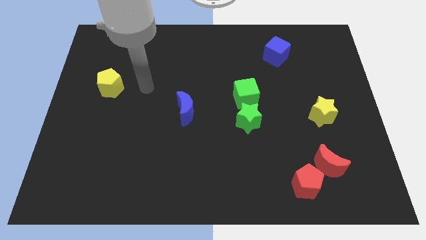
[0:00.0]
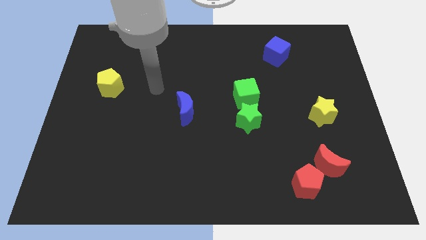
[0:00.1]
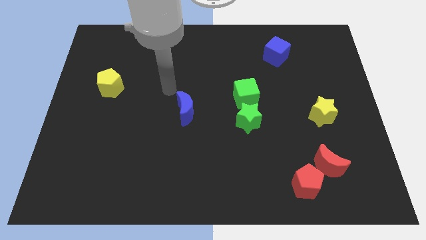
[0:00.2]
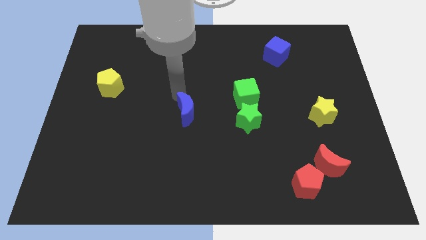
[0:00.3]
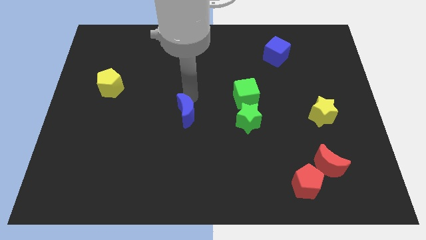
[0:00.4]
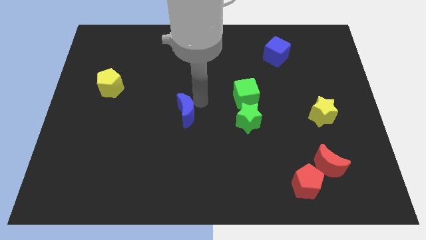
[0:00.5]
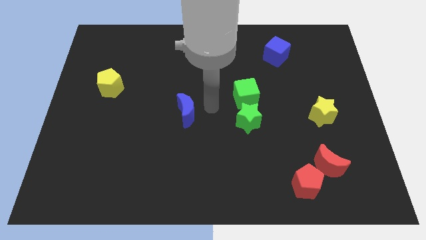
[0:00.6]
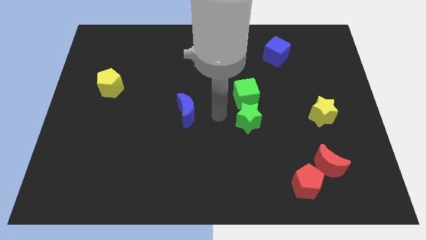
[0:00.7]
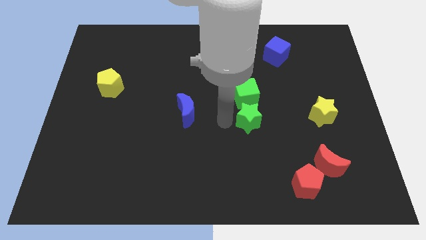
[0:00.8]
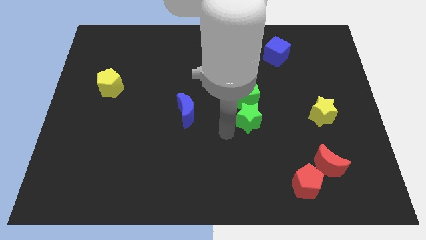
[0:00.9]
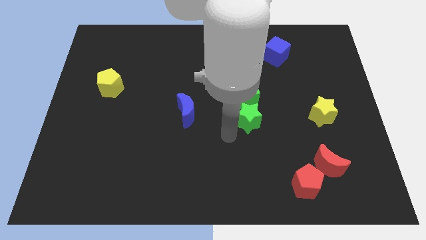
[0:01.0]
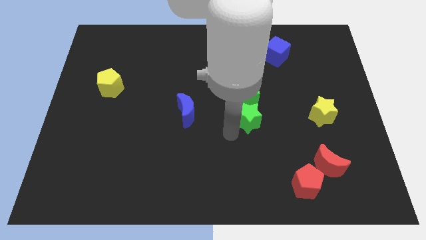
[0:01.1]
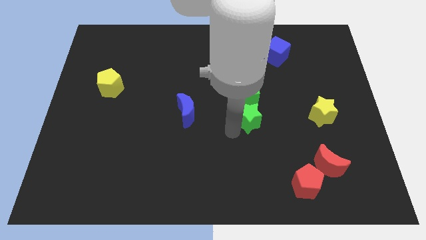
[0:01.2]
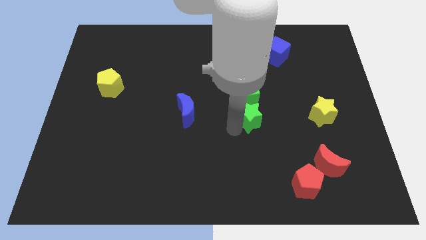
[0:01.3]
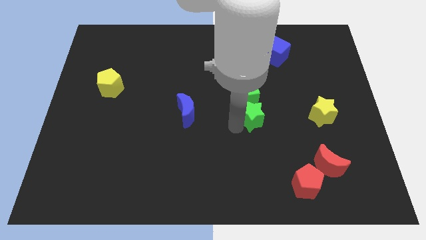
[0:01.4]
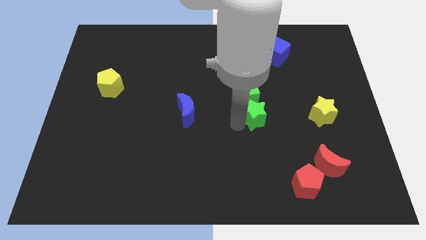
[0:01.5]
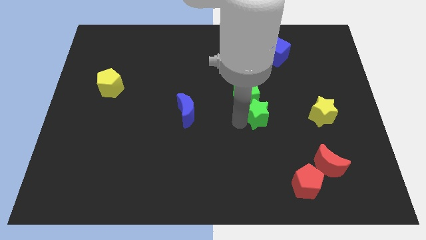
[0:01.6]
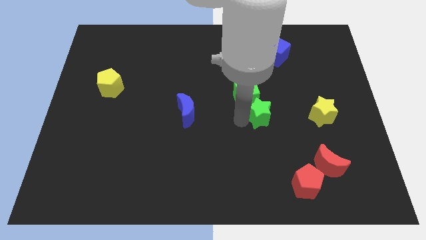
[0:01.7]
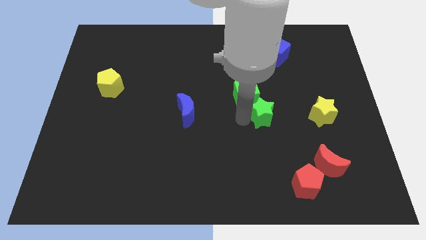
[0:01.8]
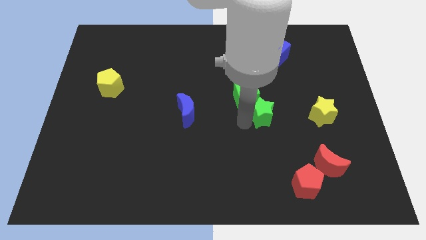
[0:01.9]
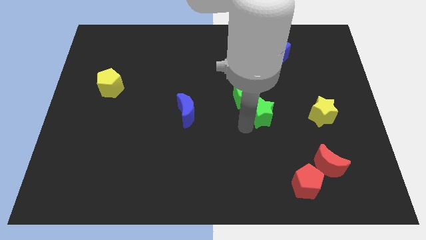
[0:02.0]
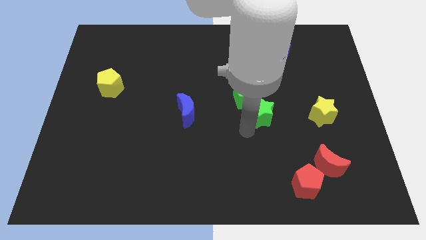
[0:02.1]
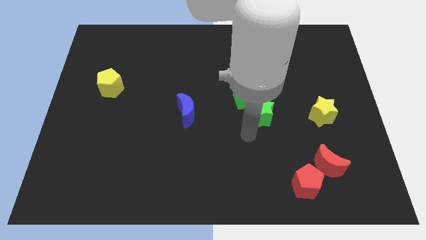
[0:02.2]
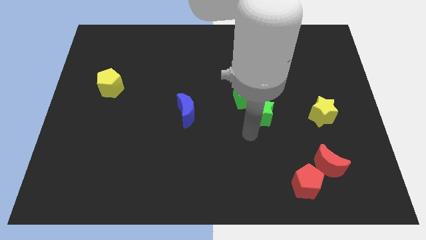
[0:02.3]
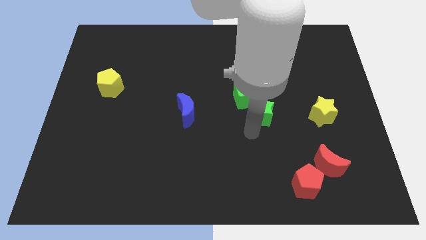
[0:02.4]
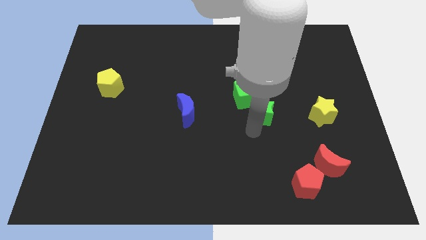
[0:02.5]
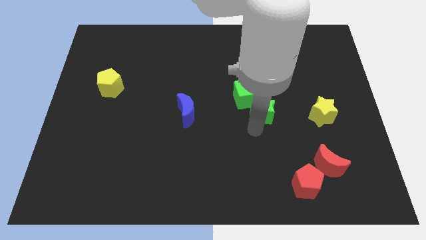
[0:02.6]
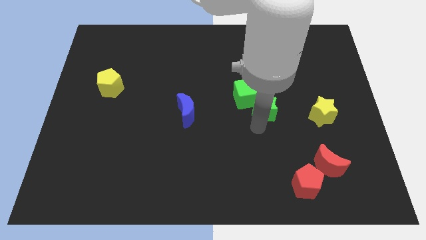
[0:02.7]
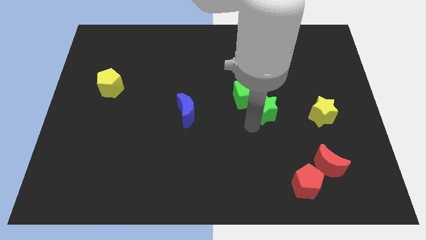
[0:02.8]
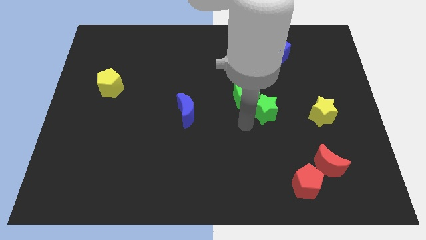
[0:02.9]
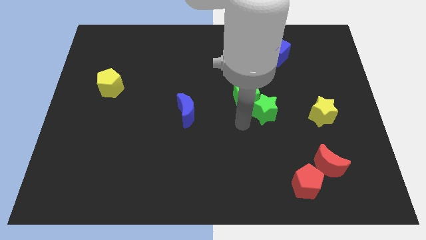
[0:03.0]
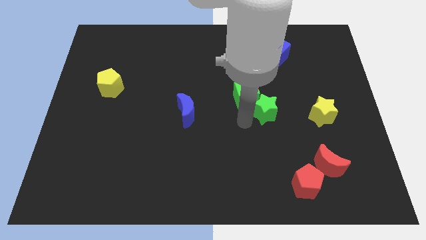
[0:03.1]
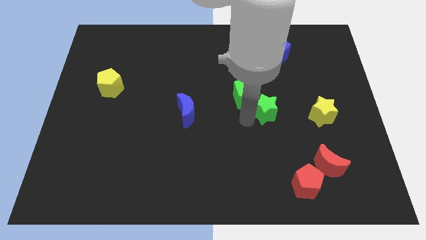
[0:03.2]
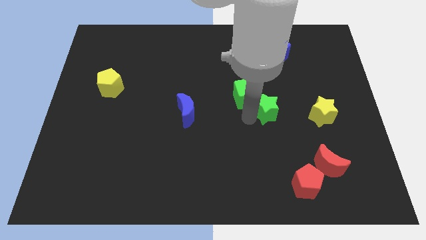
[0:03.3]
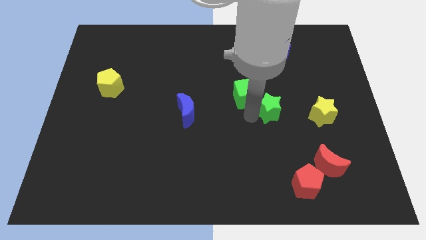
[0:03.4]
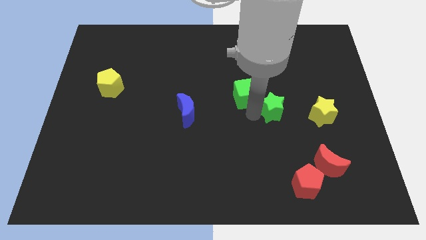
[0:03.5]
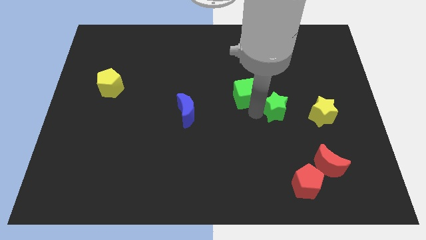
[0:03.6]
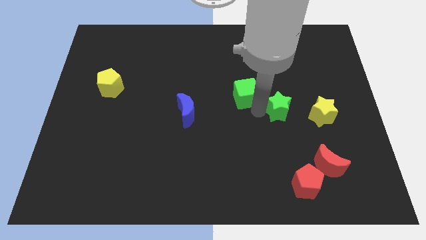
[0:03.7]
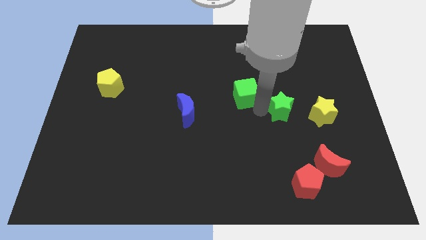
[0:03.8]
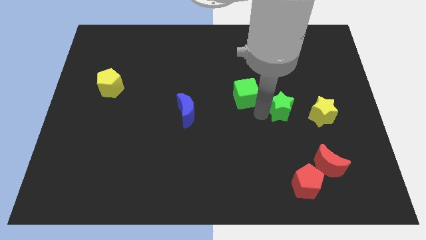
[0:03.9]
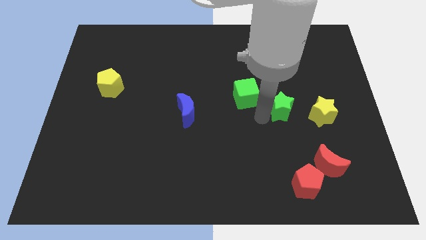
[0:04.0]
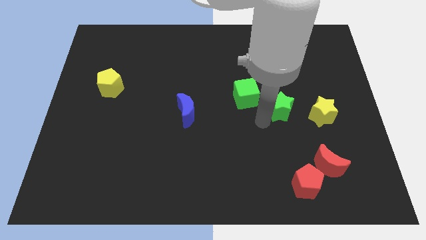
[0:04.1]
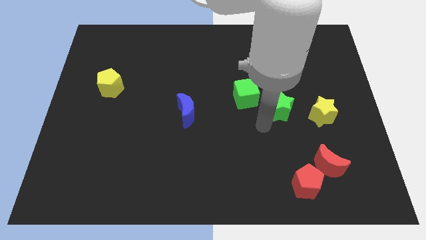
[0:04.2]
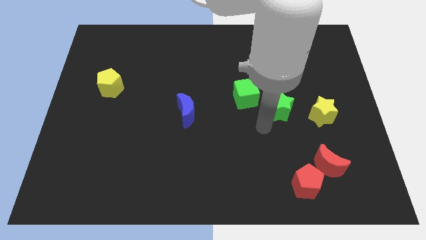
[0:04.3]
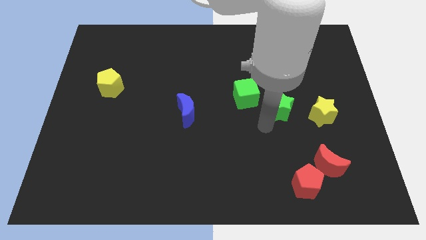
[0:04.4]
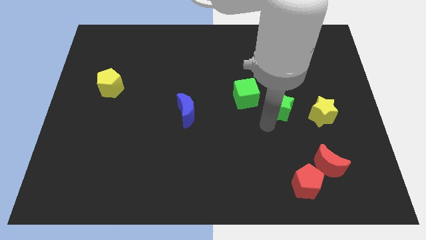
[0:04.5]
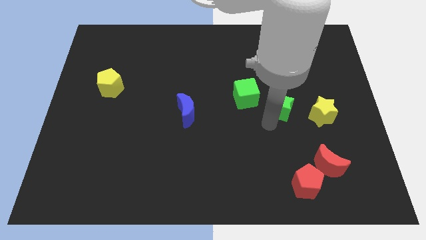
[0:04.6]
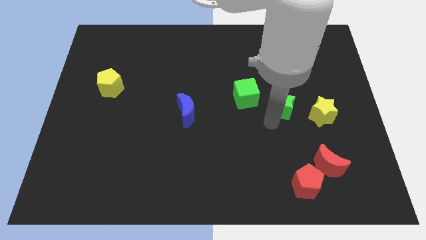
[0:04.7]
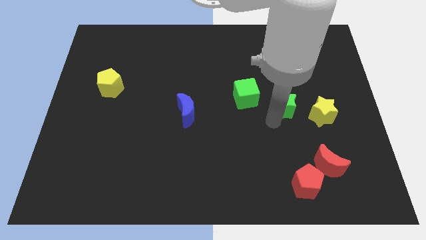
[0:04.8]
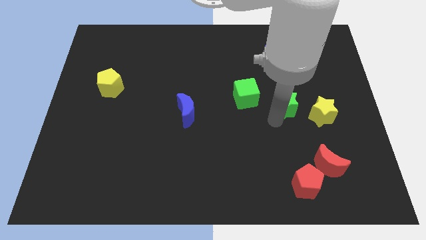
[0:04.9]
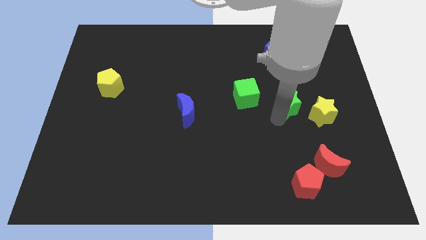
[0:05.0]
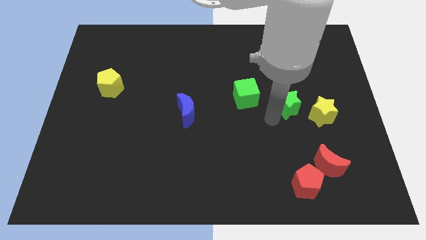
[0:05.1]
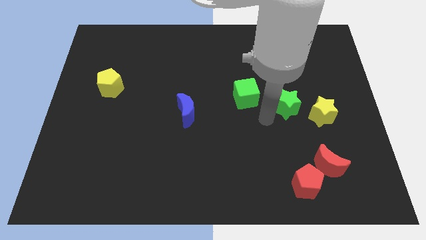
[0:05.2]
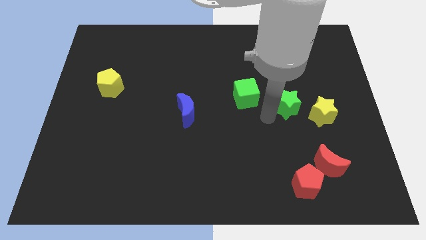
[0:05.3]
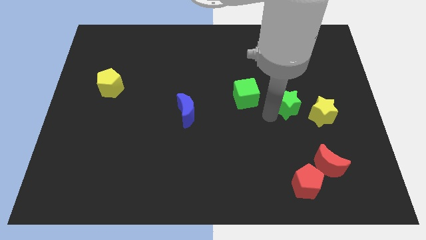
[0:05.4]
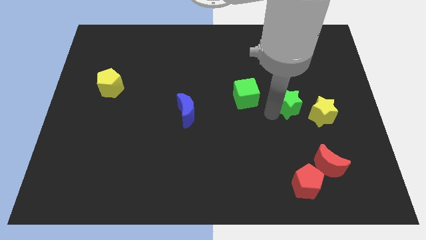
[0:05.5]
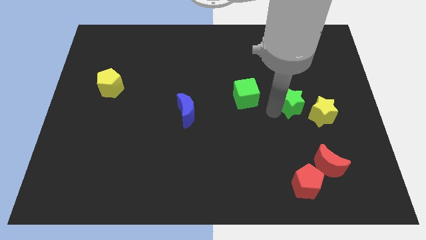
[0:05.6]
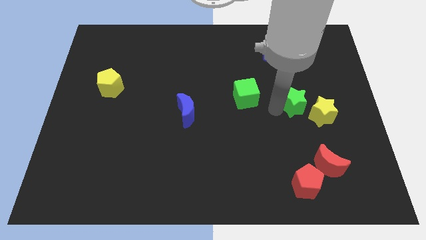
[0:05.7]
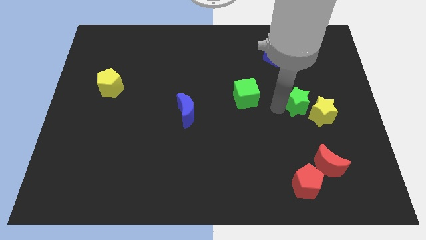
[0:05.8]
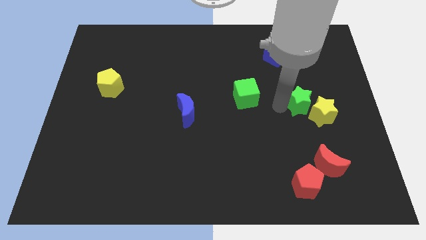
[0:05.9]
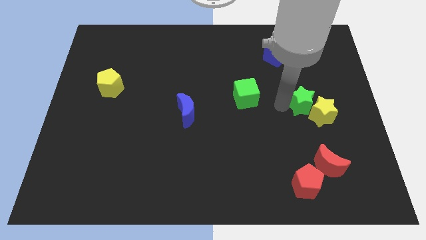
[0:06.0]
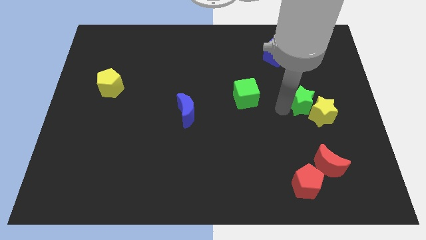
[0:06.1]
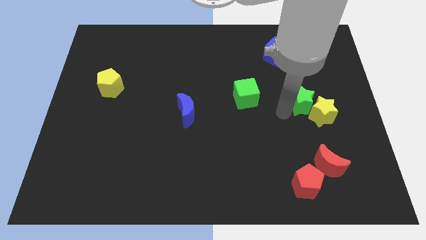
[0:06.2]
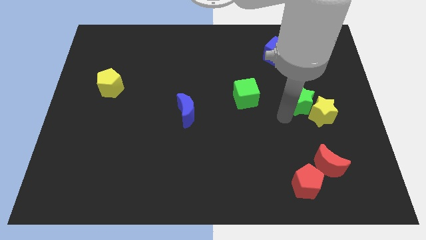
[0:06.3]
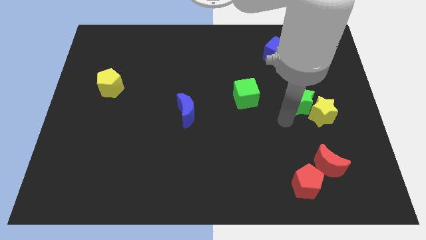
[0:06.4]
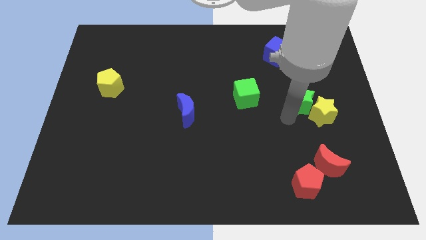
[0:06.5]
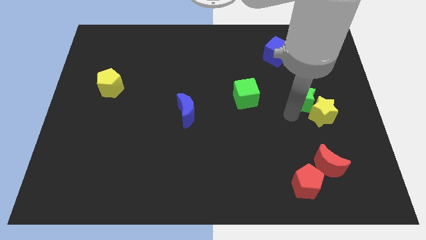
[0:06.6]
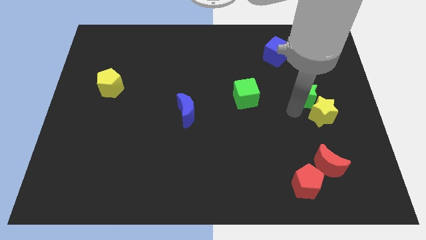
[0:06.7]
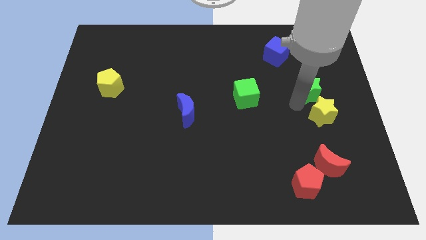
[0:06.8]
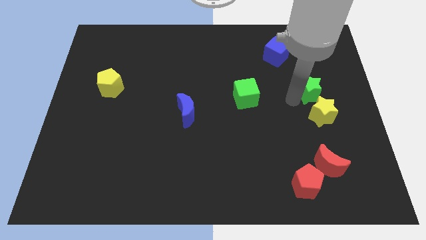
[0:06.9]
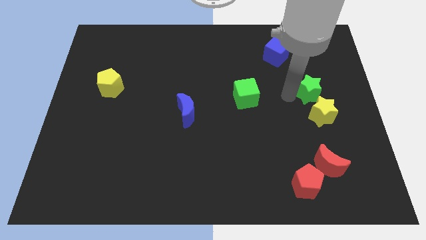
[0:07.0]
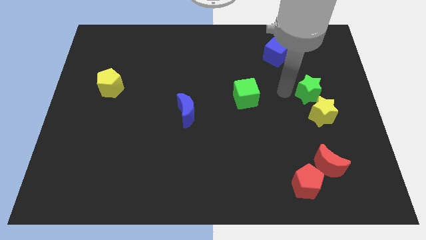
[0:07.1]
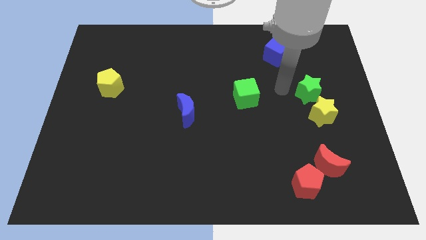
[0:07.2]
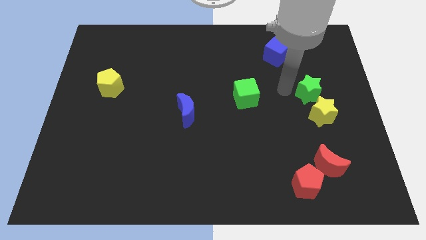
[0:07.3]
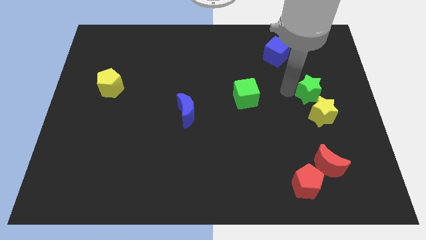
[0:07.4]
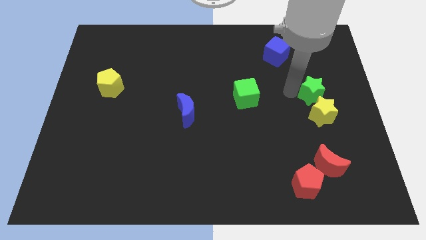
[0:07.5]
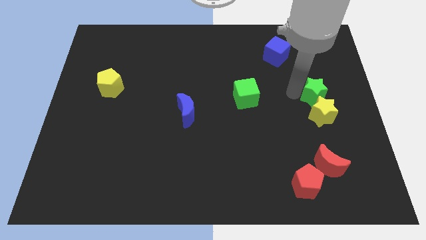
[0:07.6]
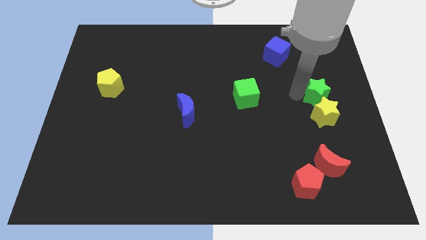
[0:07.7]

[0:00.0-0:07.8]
slide the green star to the center right
